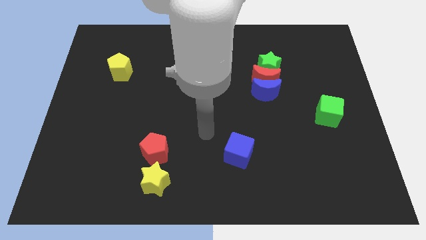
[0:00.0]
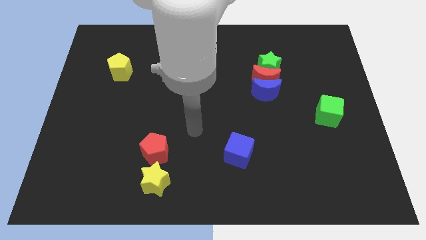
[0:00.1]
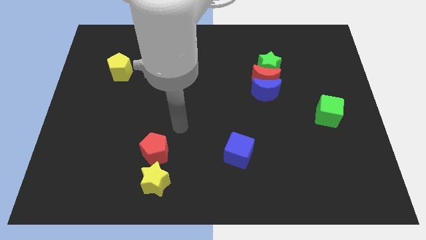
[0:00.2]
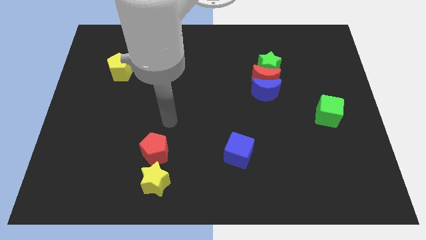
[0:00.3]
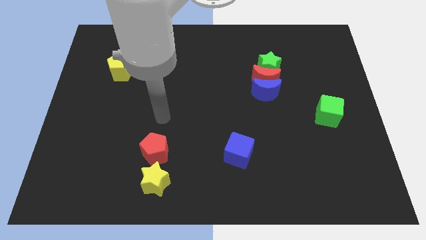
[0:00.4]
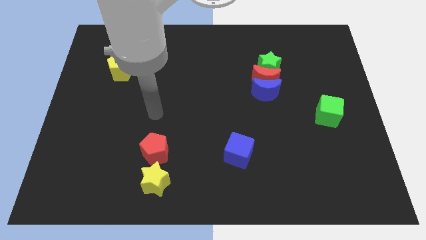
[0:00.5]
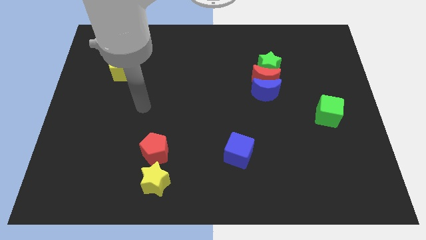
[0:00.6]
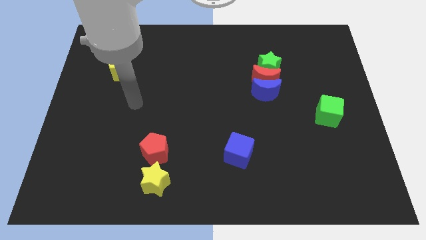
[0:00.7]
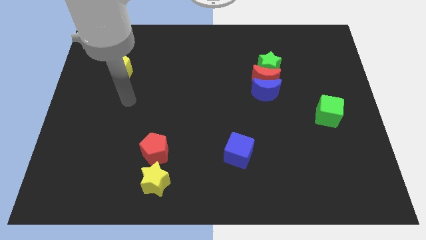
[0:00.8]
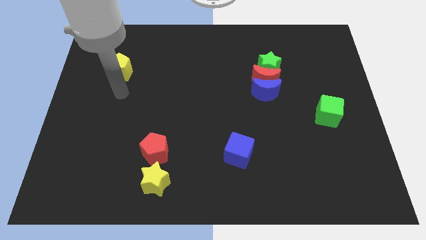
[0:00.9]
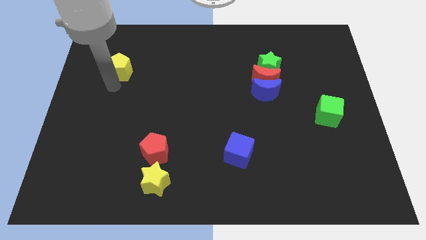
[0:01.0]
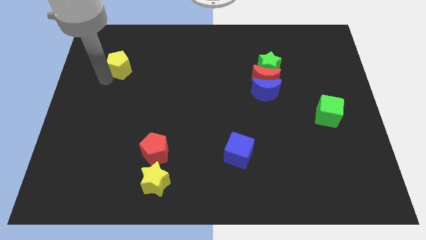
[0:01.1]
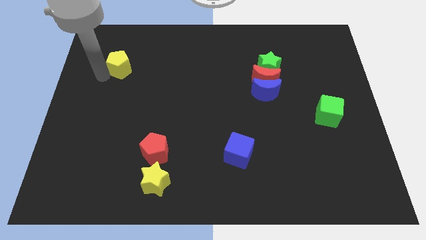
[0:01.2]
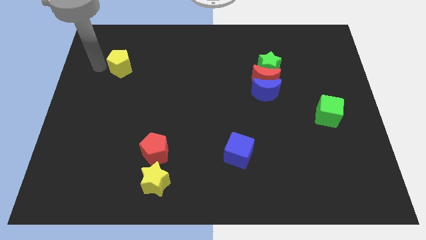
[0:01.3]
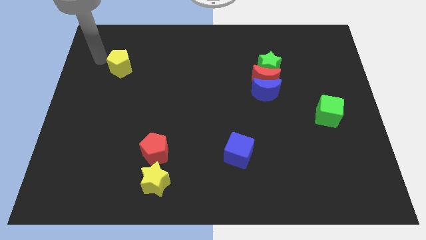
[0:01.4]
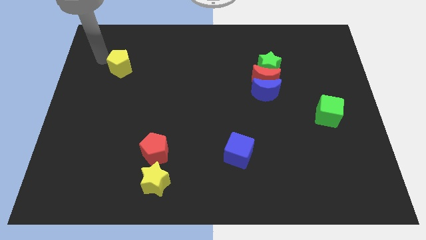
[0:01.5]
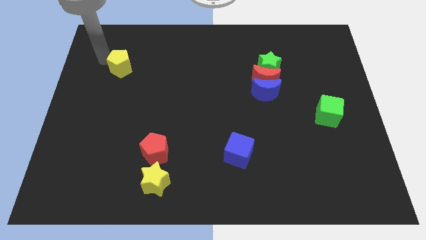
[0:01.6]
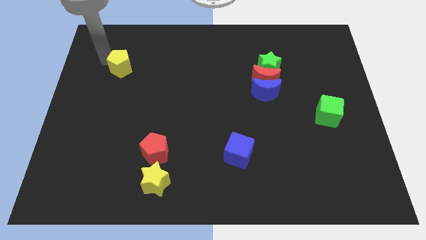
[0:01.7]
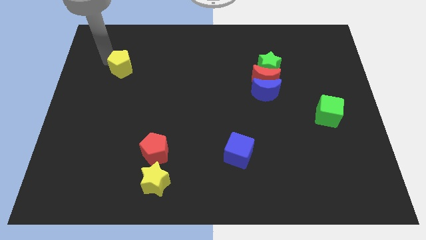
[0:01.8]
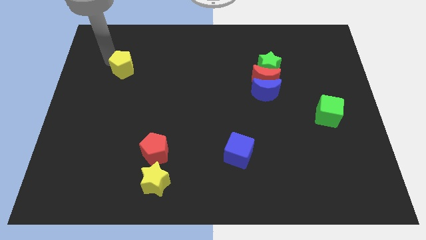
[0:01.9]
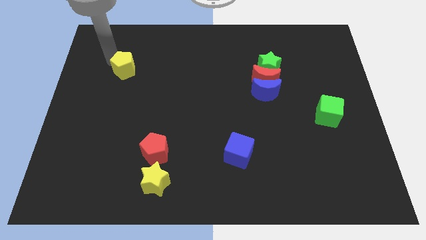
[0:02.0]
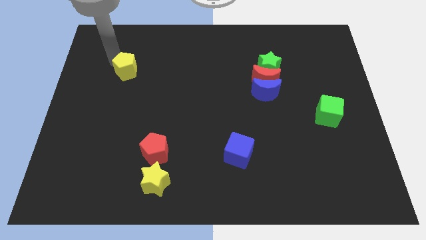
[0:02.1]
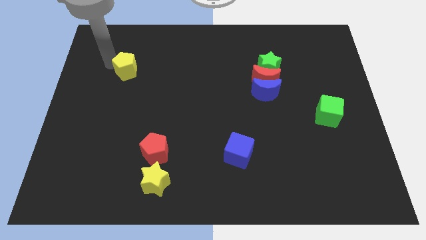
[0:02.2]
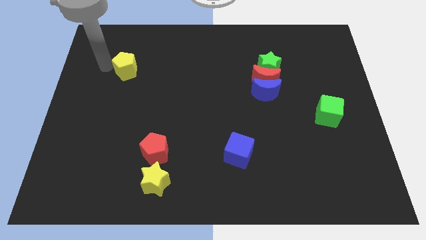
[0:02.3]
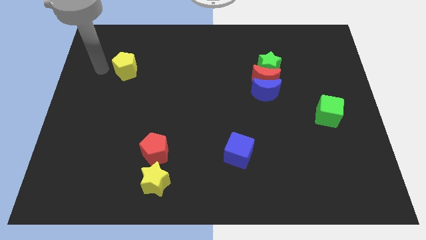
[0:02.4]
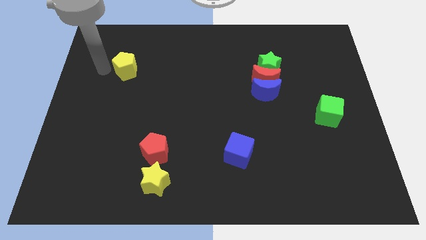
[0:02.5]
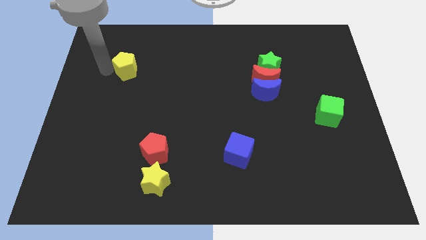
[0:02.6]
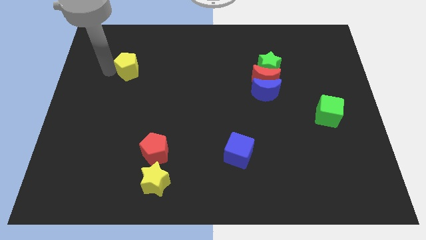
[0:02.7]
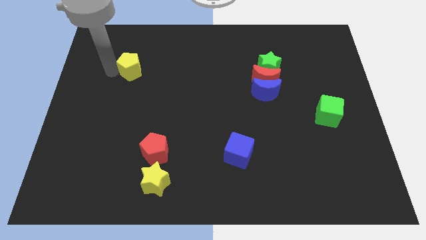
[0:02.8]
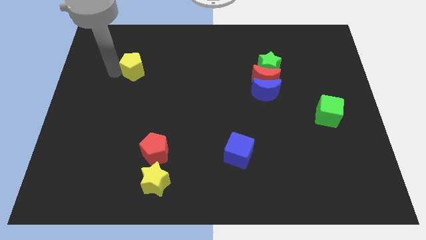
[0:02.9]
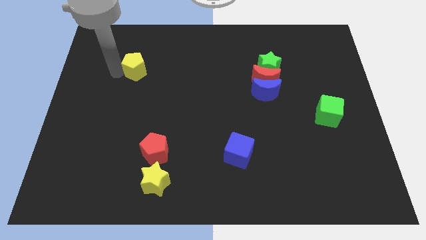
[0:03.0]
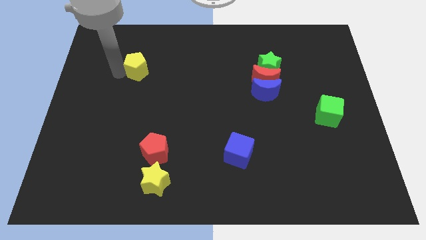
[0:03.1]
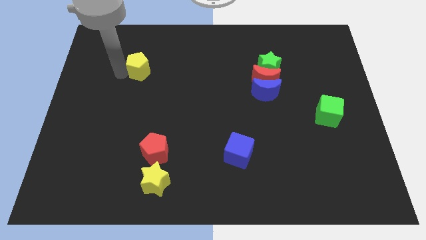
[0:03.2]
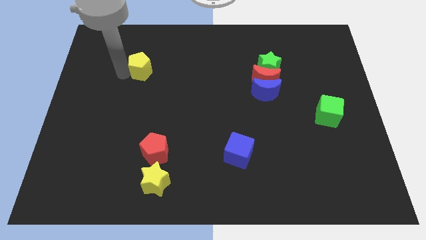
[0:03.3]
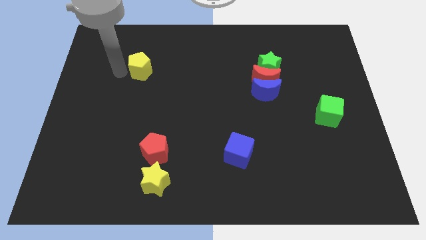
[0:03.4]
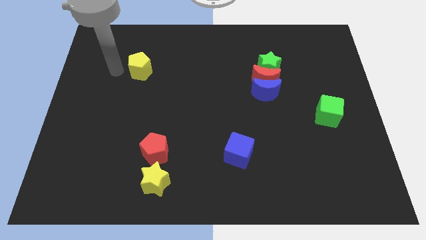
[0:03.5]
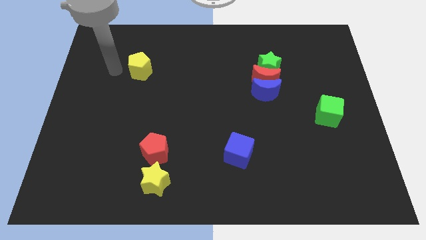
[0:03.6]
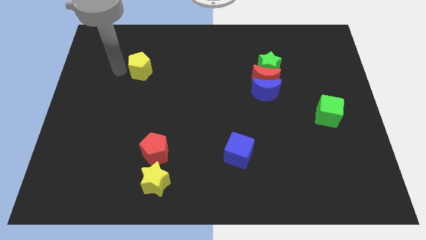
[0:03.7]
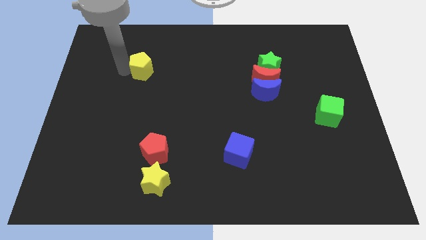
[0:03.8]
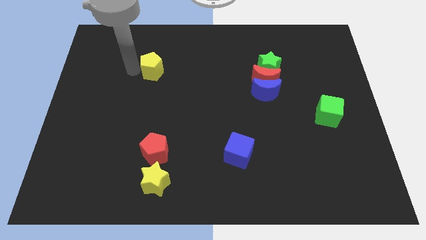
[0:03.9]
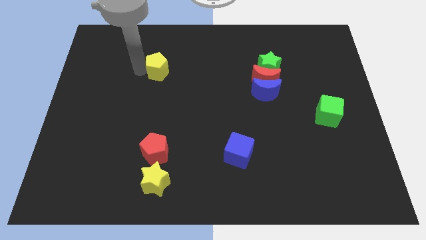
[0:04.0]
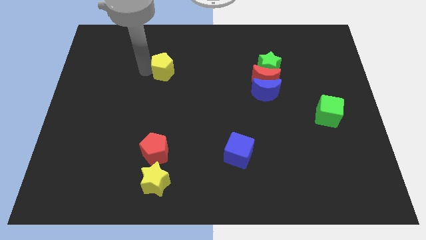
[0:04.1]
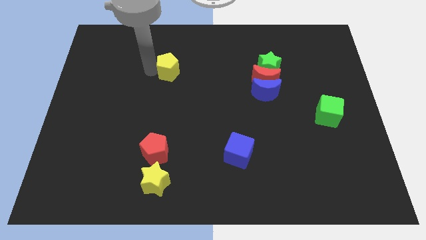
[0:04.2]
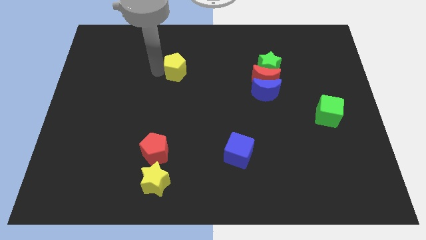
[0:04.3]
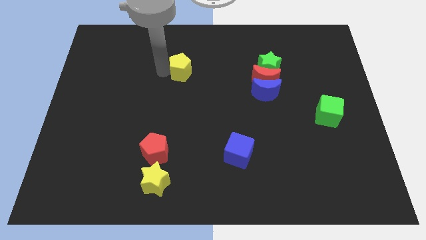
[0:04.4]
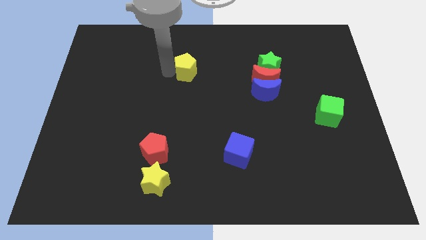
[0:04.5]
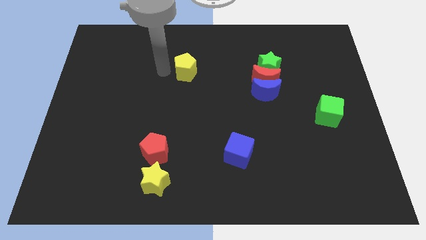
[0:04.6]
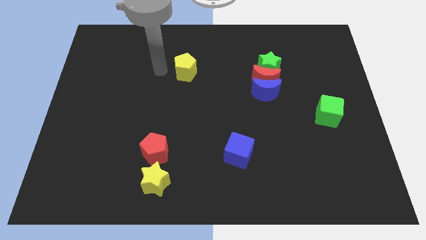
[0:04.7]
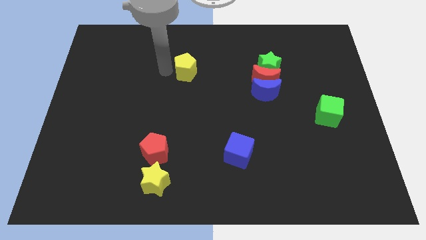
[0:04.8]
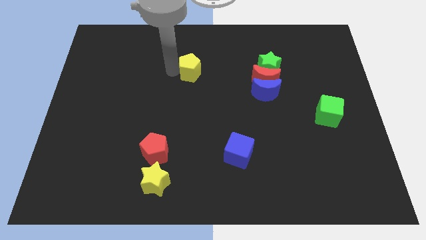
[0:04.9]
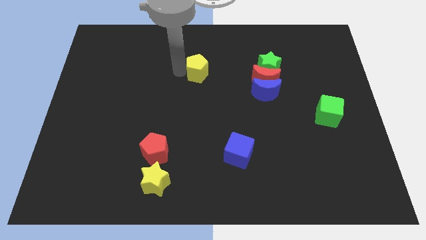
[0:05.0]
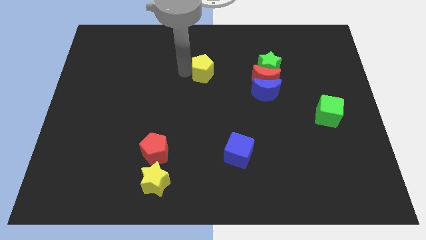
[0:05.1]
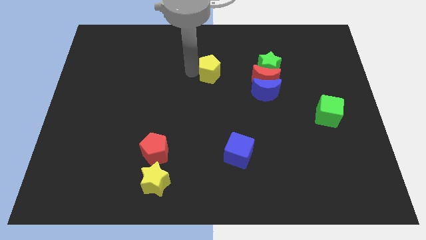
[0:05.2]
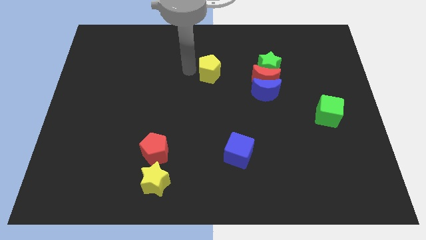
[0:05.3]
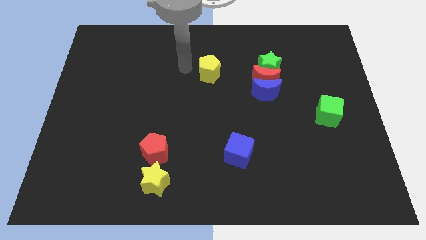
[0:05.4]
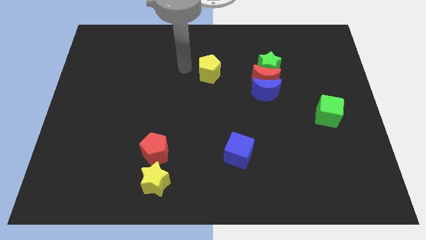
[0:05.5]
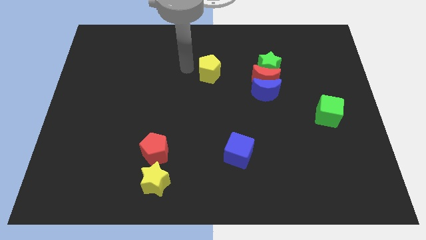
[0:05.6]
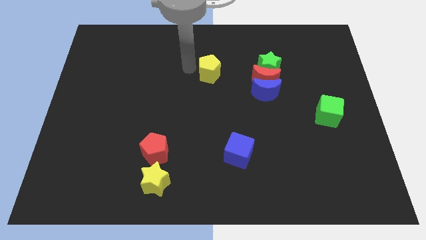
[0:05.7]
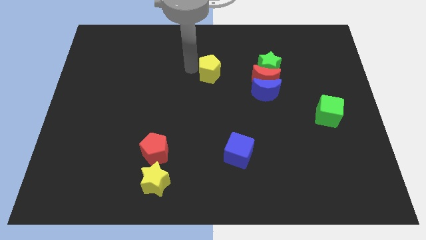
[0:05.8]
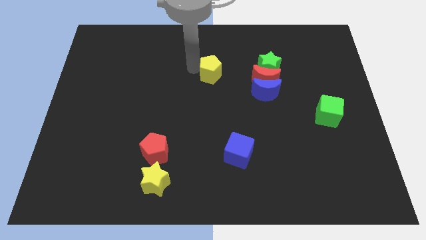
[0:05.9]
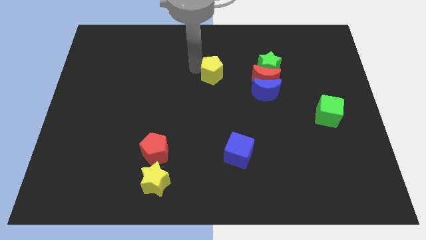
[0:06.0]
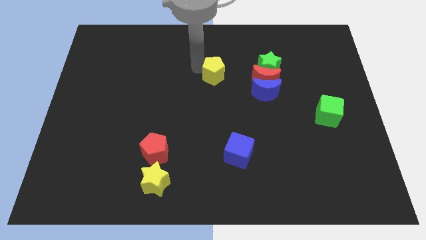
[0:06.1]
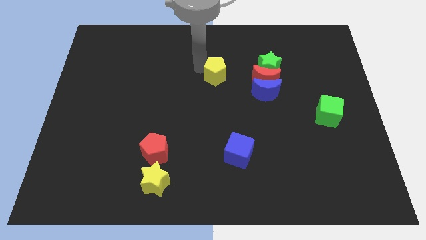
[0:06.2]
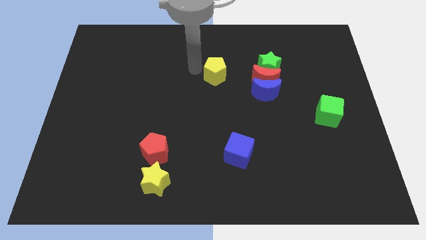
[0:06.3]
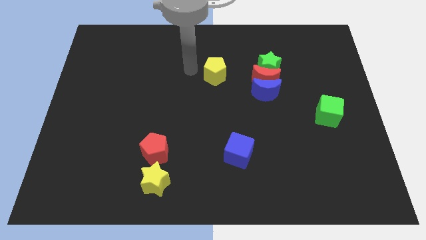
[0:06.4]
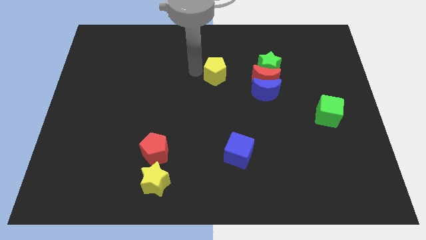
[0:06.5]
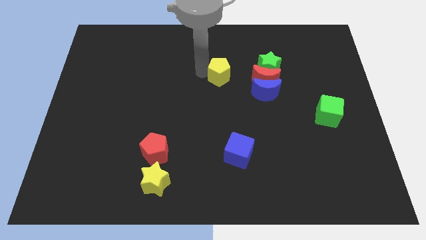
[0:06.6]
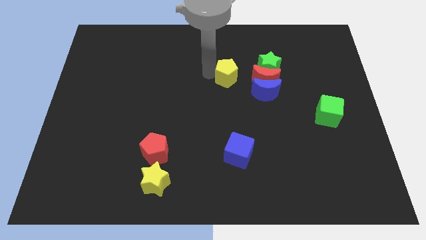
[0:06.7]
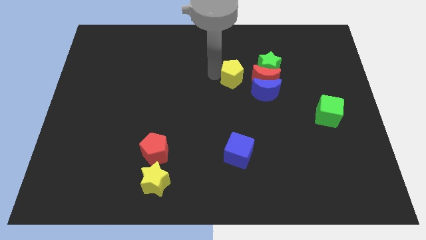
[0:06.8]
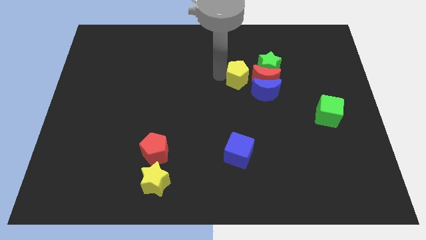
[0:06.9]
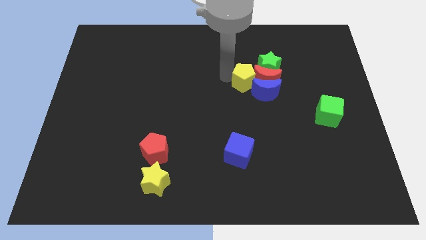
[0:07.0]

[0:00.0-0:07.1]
put the yellow pentagon close to the red moon
